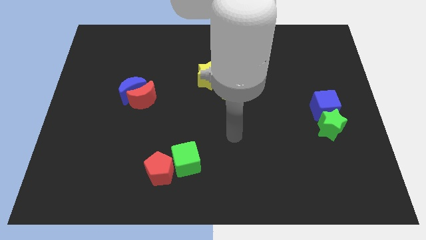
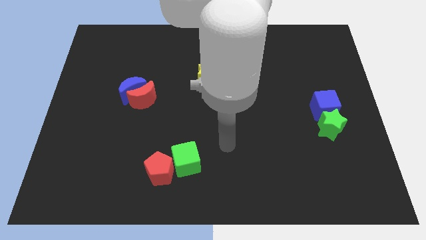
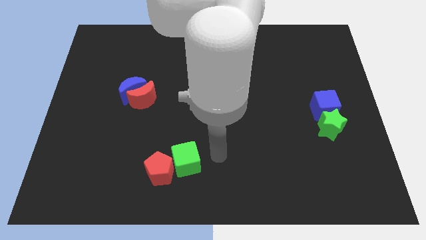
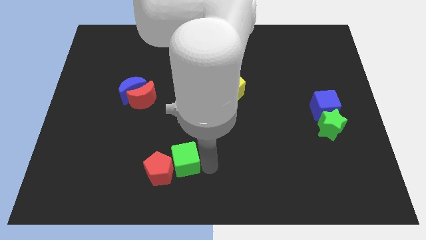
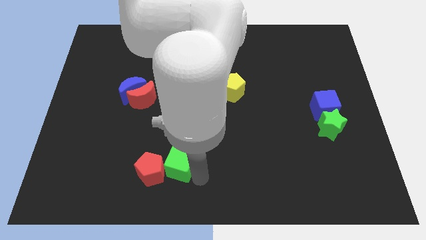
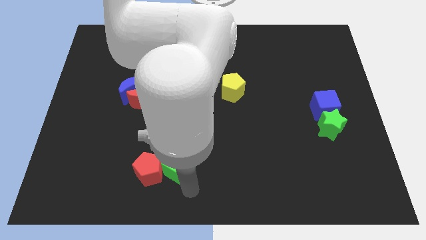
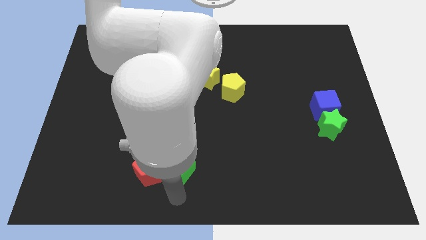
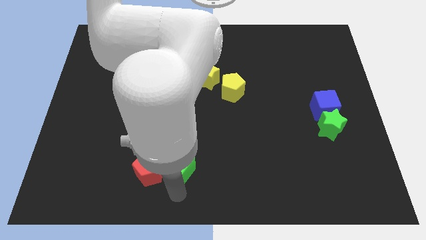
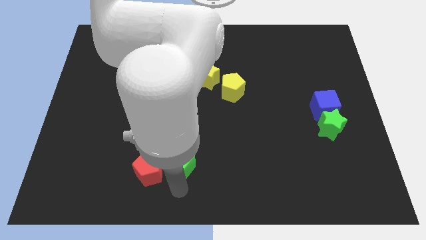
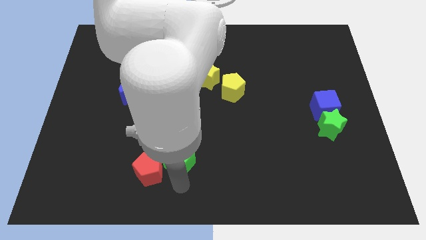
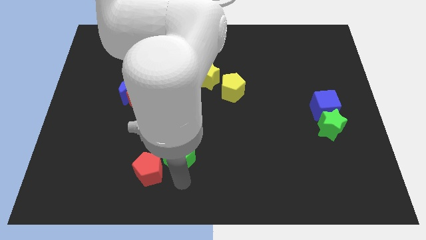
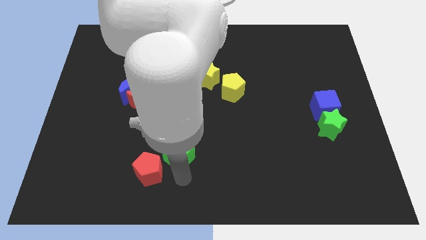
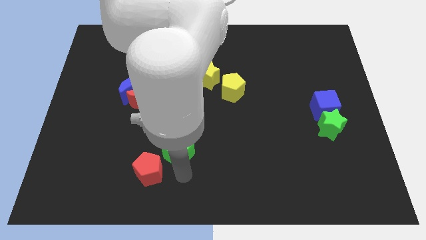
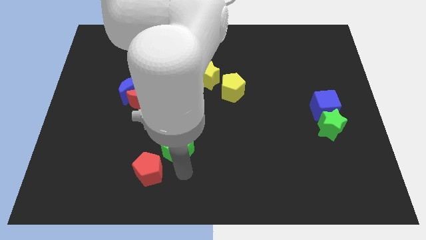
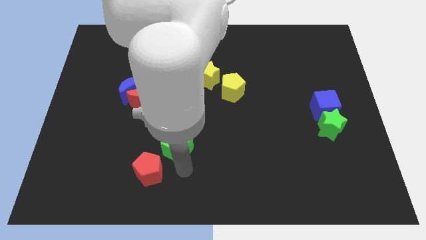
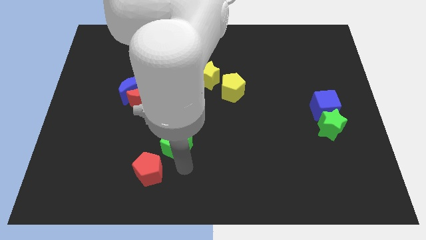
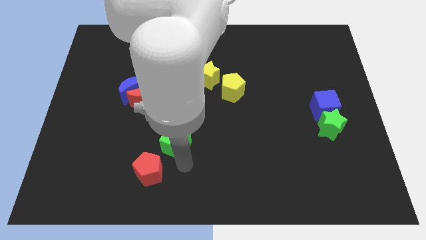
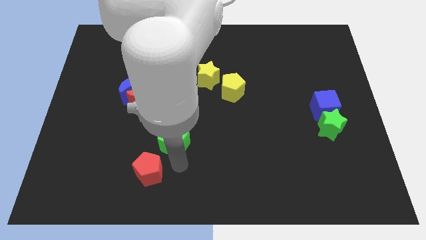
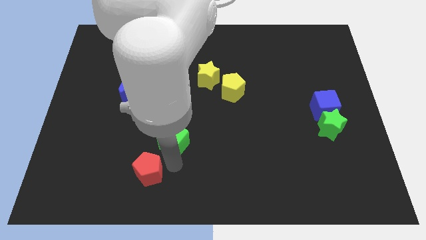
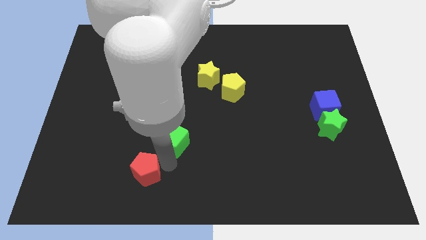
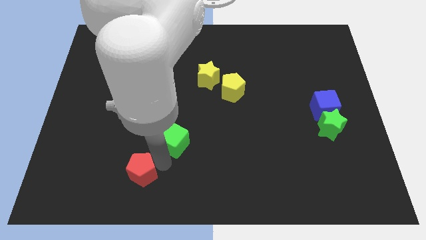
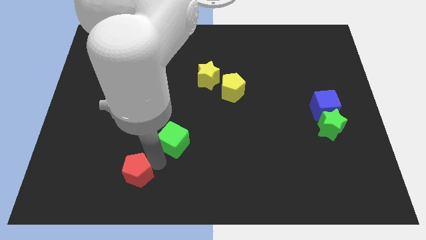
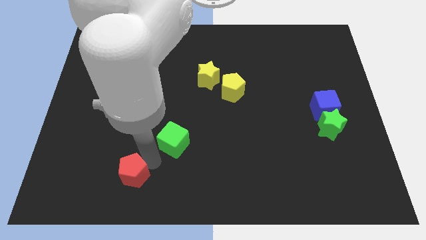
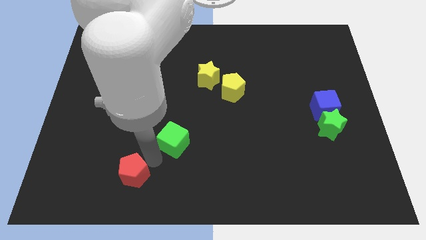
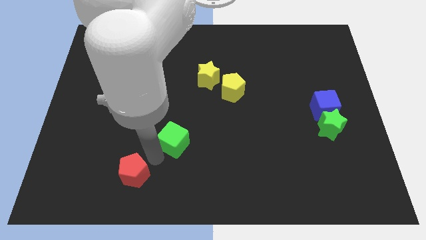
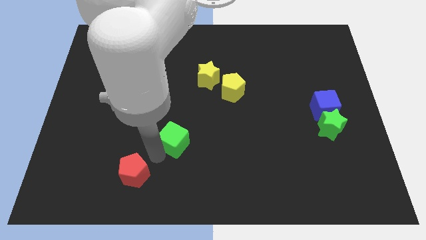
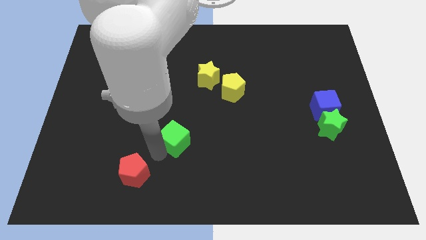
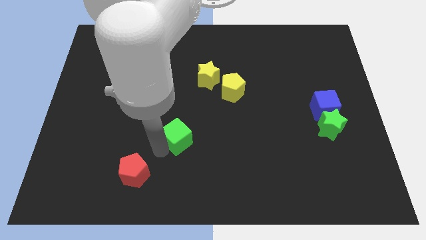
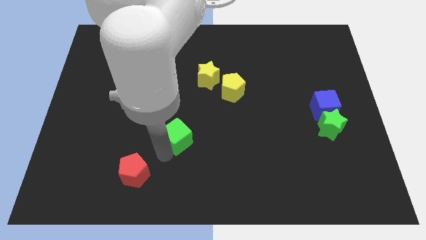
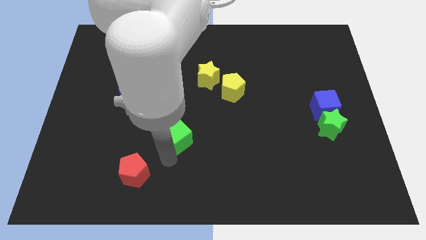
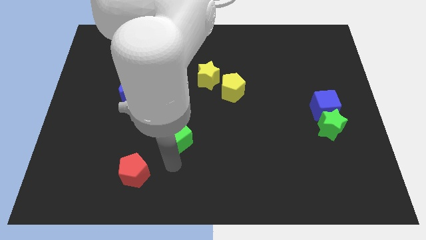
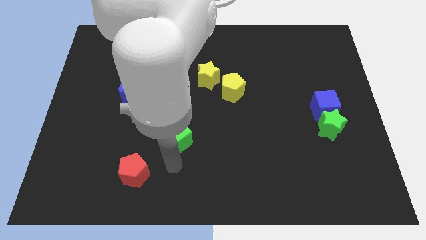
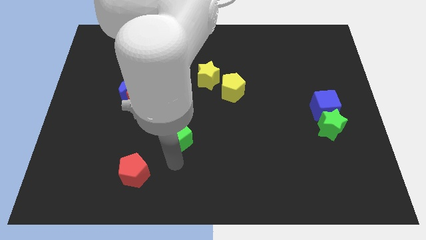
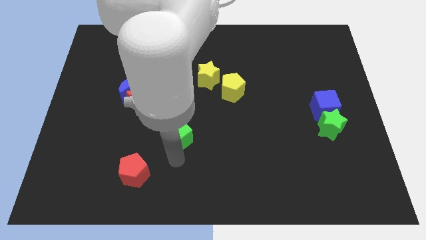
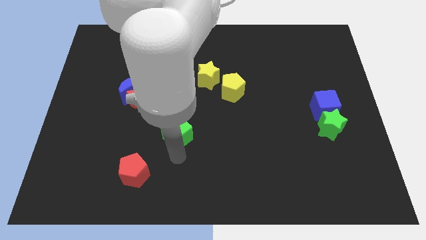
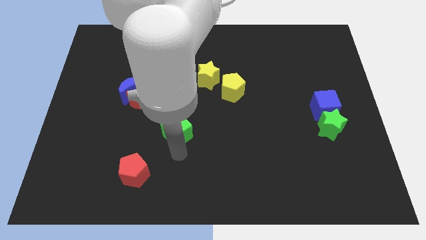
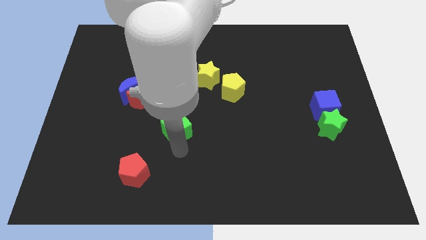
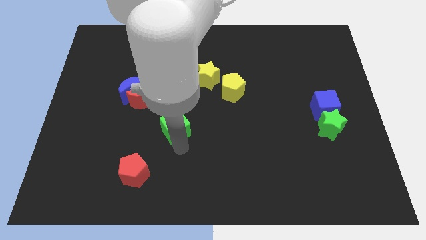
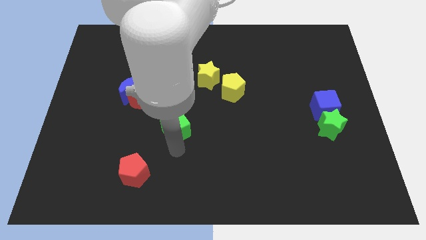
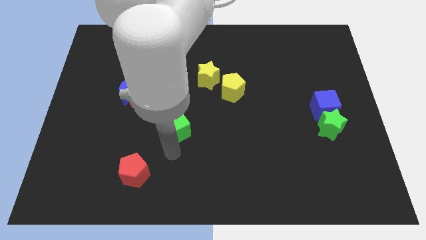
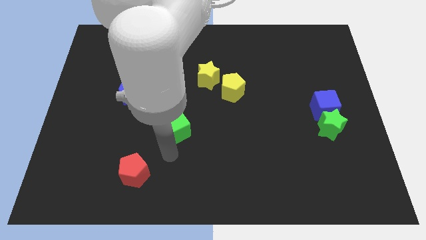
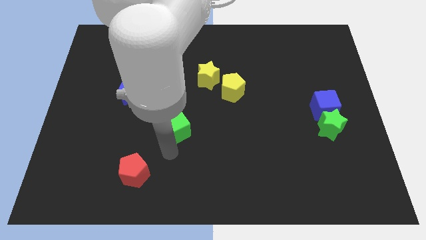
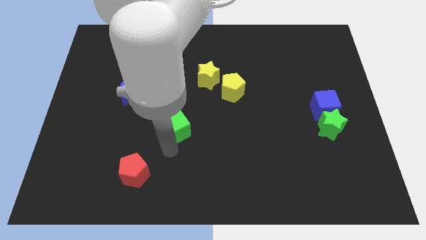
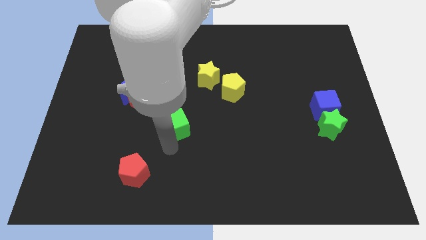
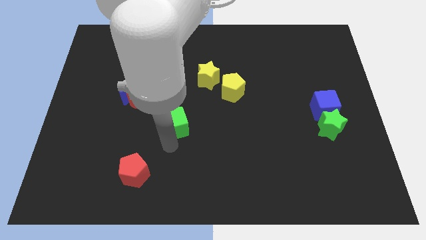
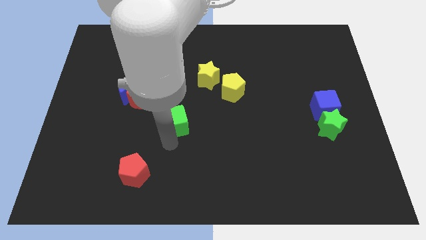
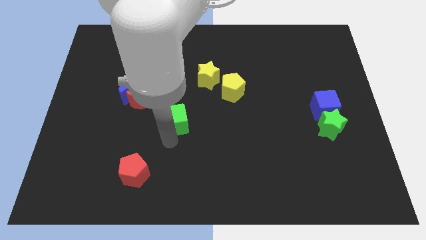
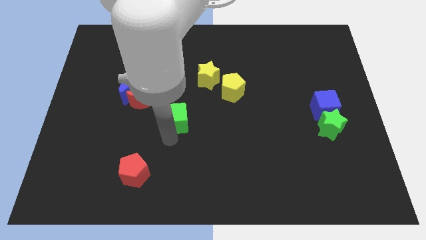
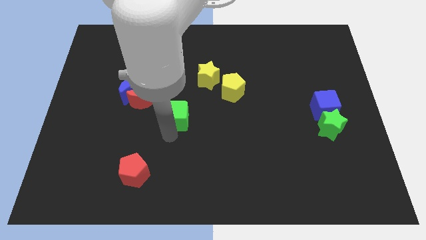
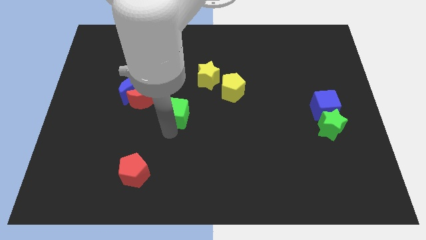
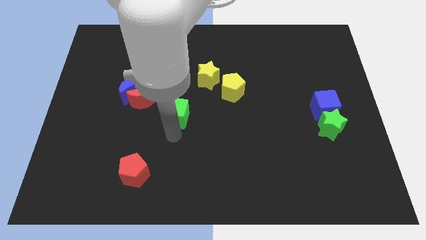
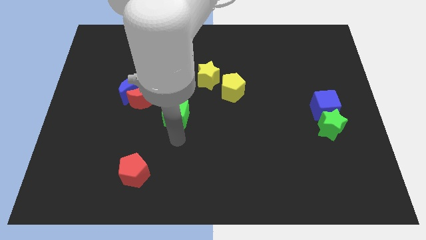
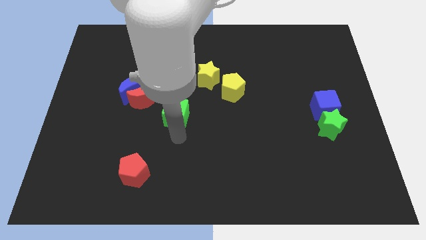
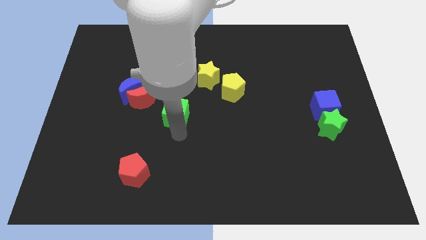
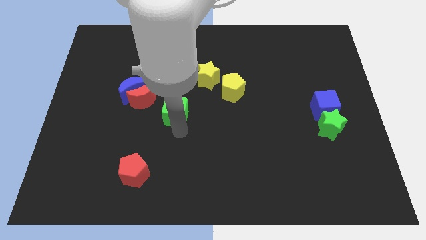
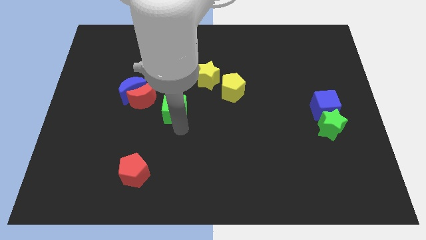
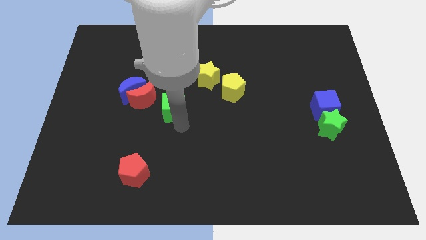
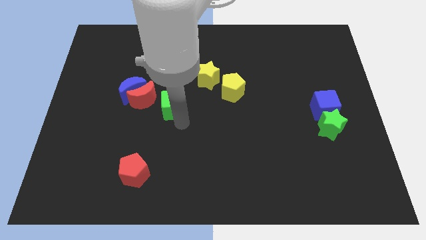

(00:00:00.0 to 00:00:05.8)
put the green cube just right of the blue moon

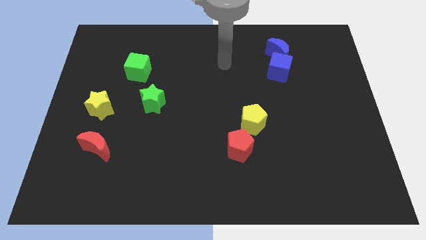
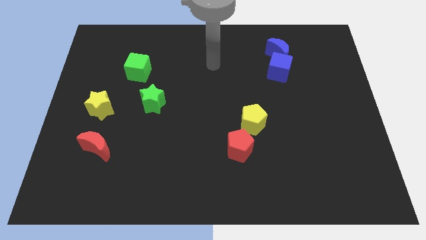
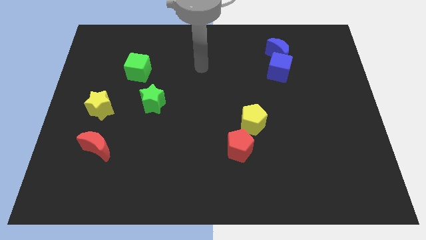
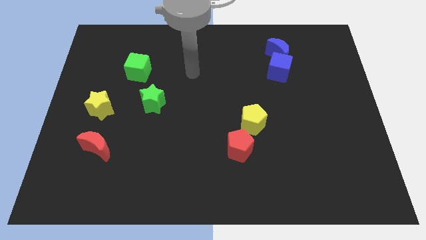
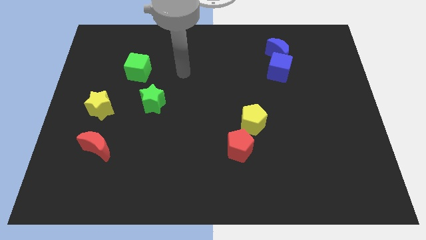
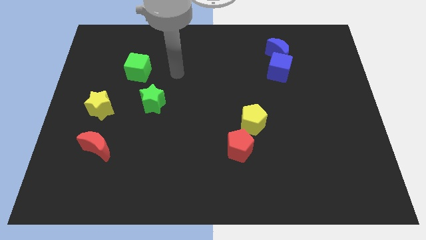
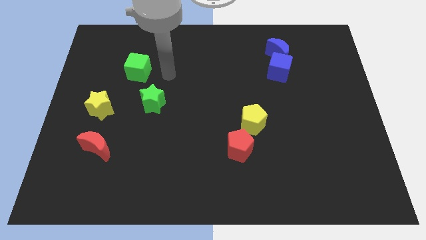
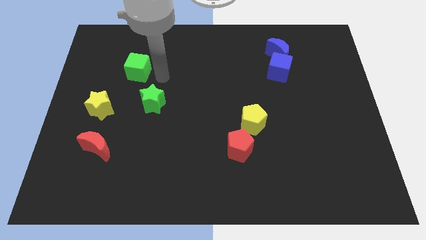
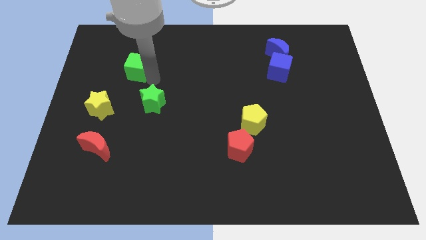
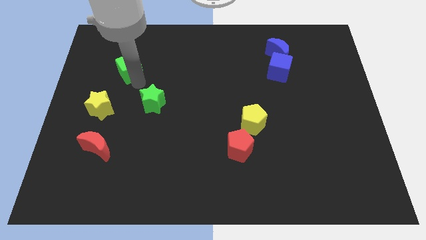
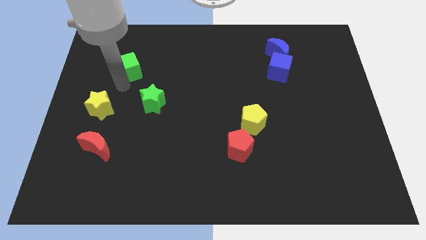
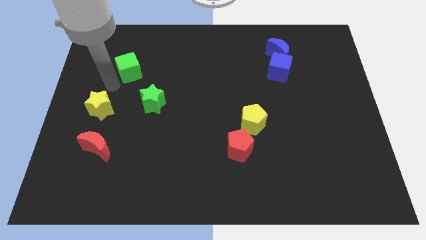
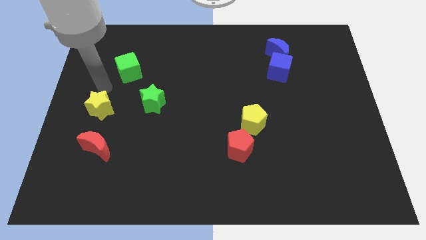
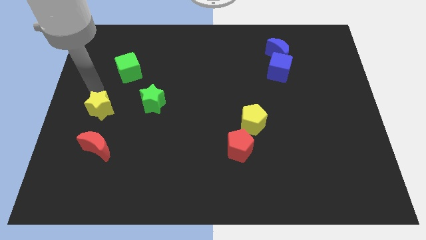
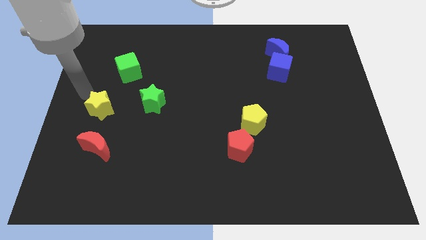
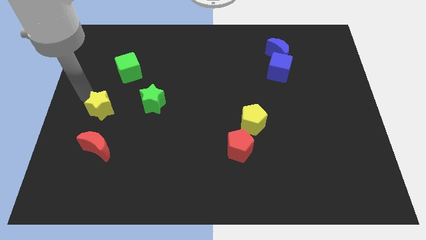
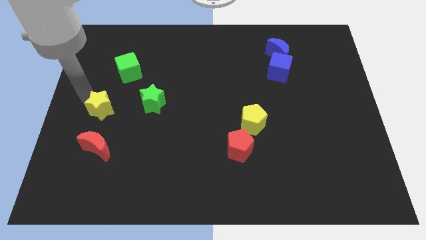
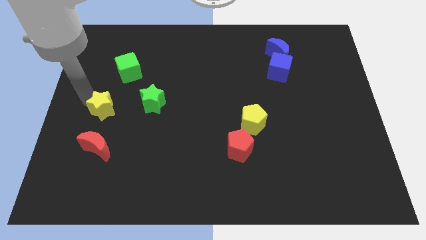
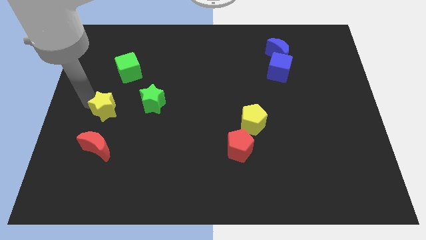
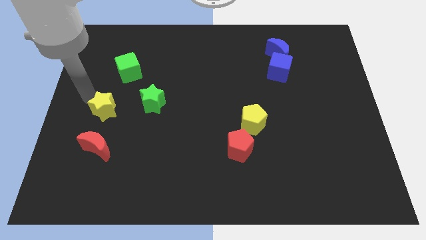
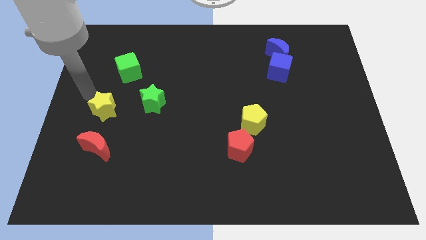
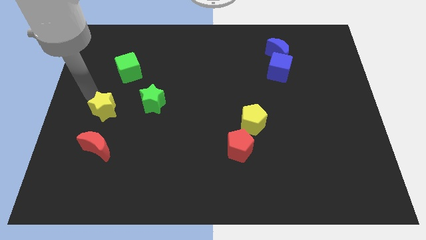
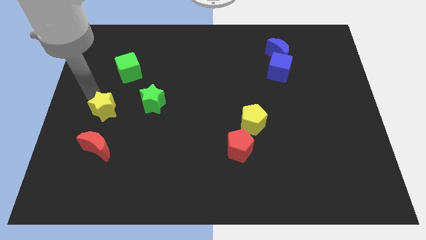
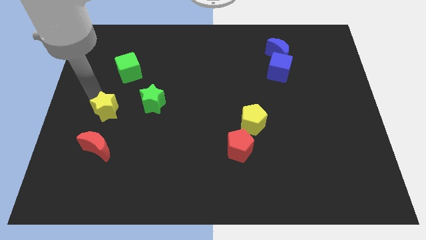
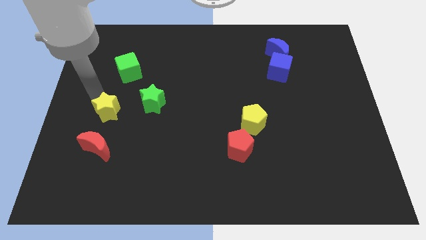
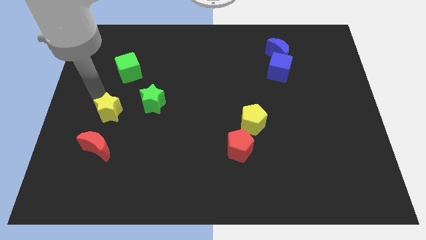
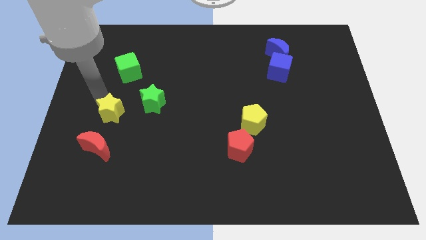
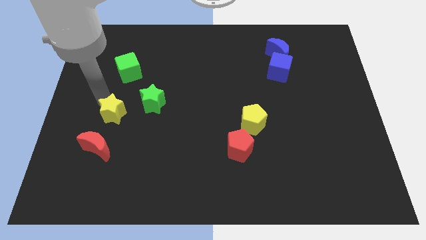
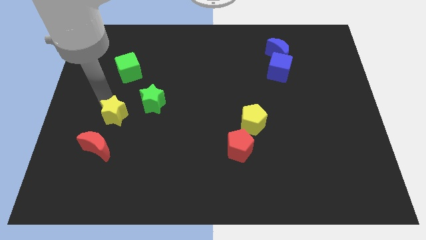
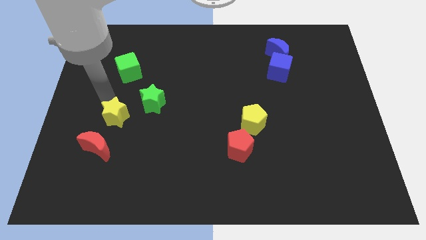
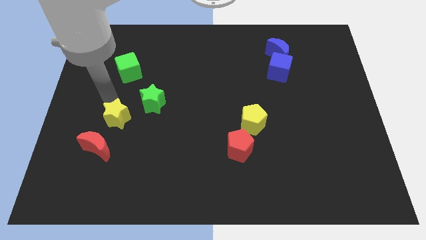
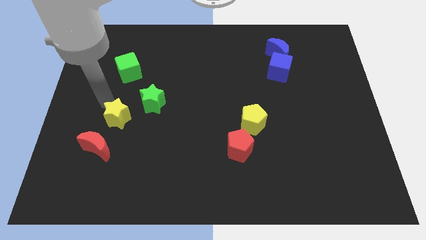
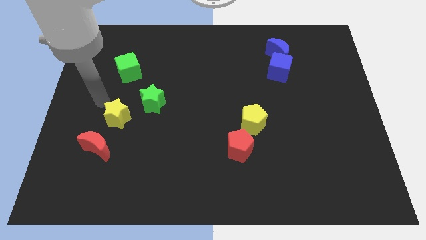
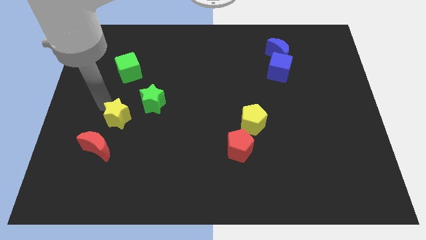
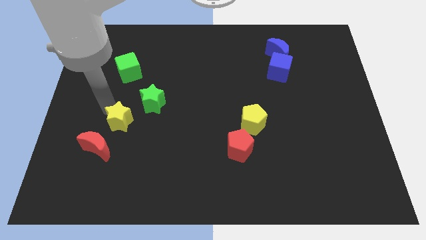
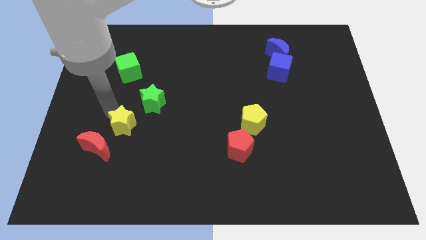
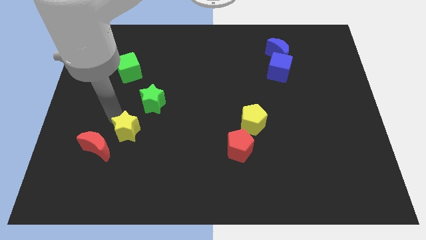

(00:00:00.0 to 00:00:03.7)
move the yellow star to the bottom side of the green star
